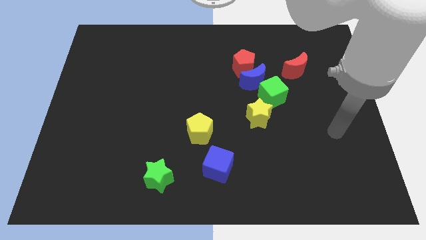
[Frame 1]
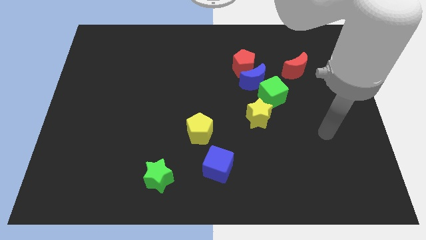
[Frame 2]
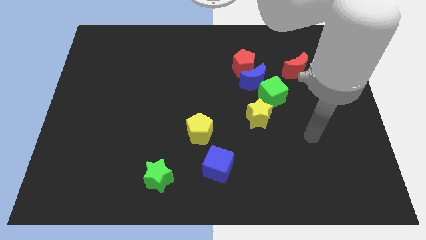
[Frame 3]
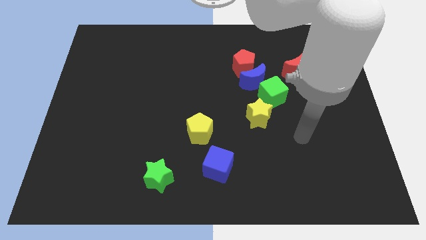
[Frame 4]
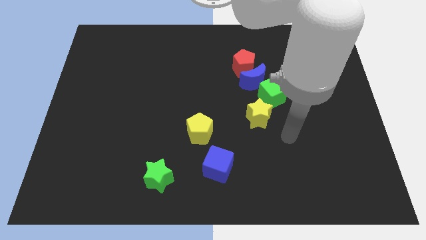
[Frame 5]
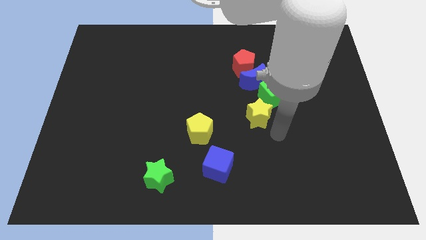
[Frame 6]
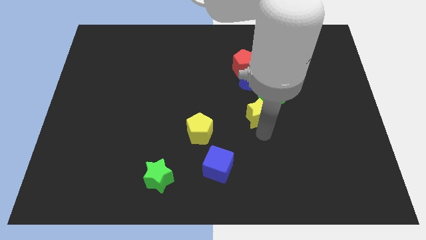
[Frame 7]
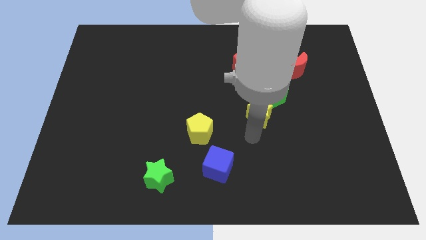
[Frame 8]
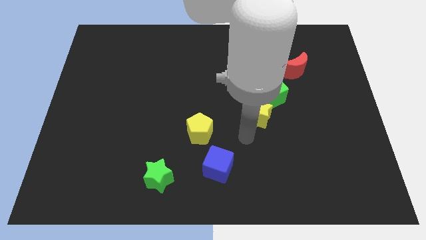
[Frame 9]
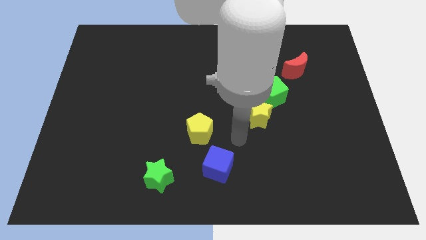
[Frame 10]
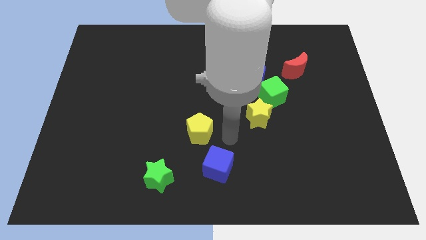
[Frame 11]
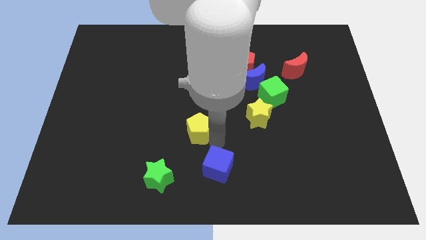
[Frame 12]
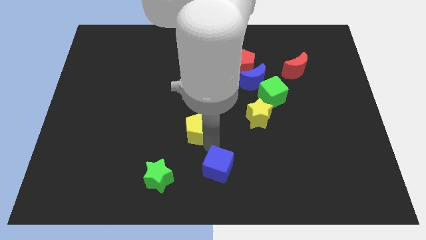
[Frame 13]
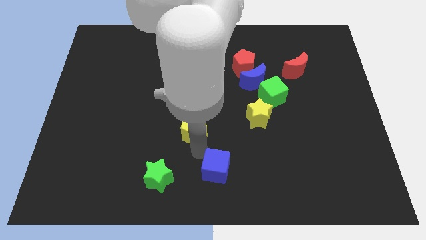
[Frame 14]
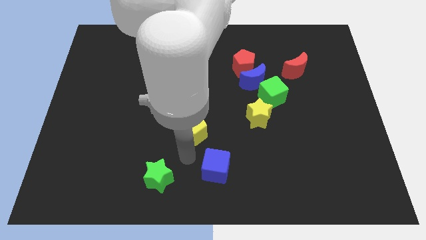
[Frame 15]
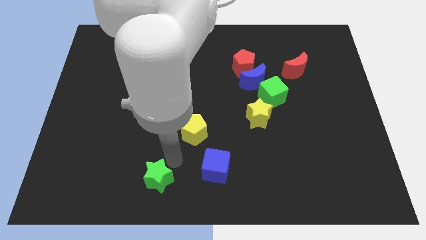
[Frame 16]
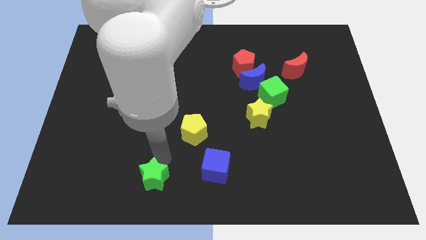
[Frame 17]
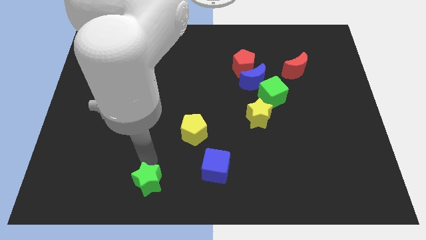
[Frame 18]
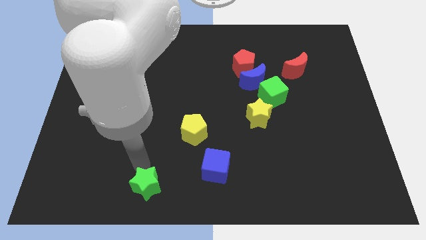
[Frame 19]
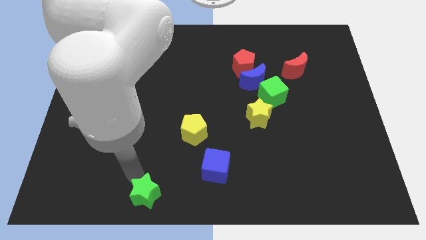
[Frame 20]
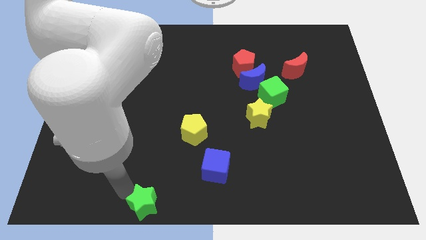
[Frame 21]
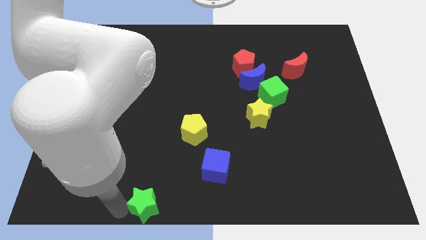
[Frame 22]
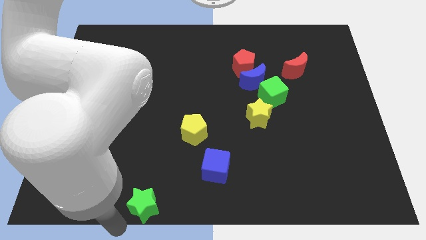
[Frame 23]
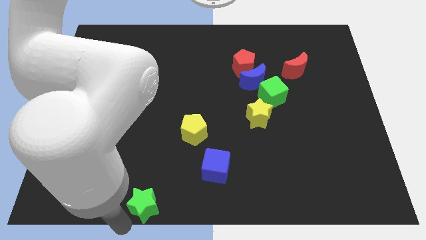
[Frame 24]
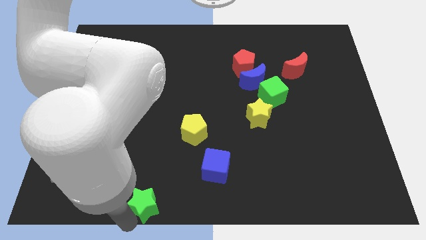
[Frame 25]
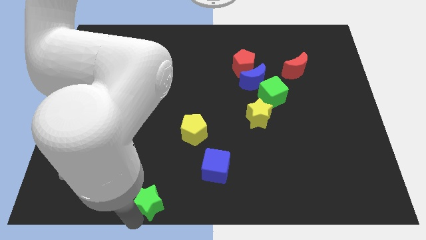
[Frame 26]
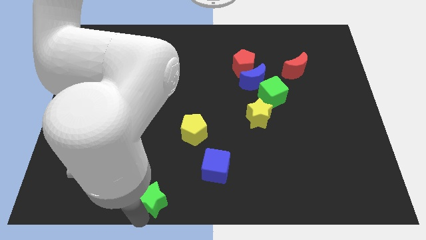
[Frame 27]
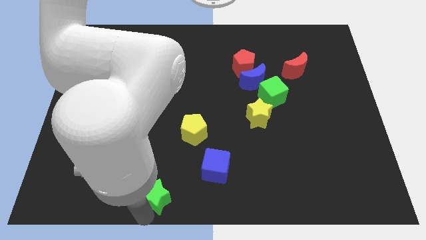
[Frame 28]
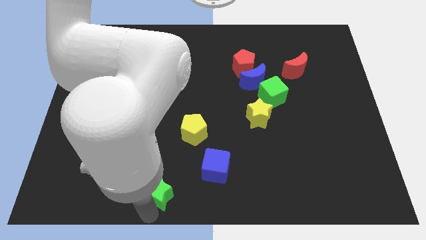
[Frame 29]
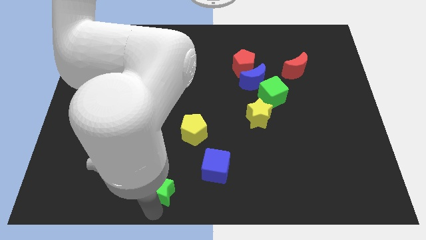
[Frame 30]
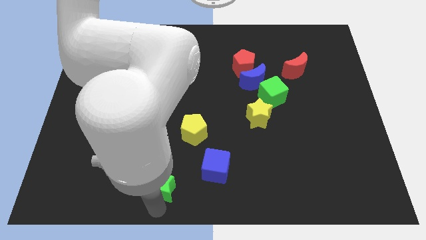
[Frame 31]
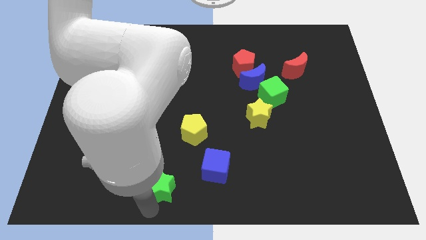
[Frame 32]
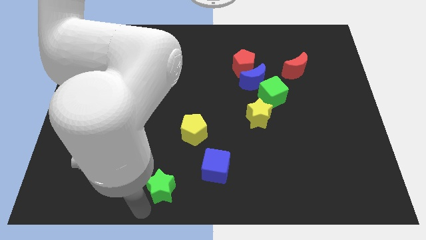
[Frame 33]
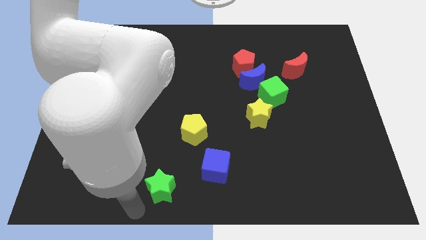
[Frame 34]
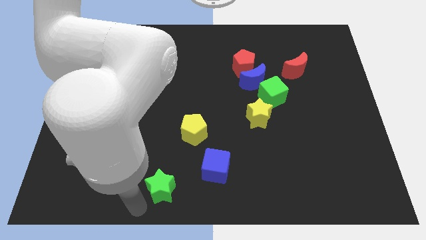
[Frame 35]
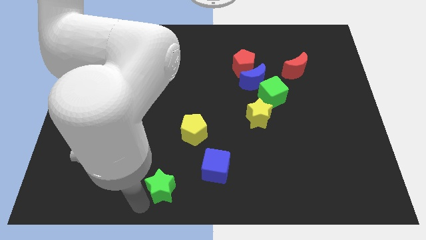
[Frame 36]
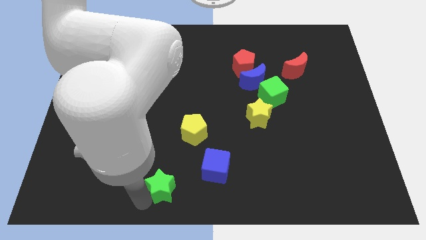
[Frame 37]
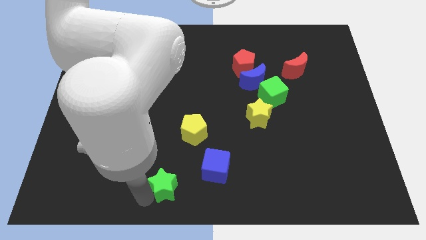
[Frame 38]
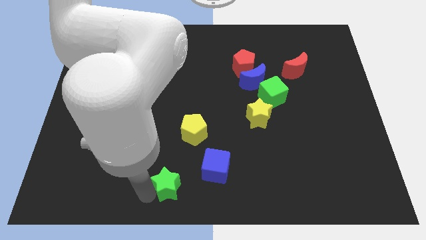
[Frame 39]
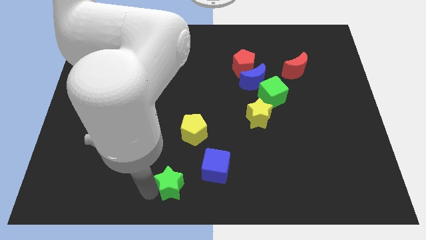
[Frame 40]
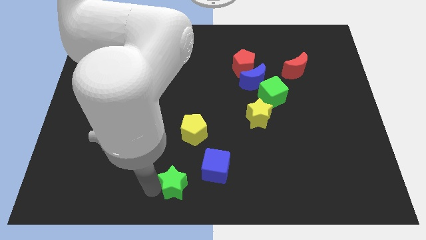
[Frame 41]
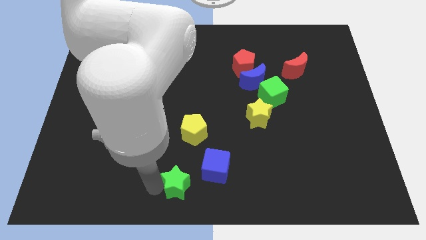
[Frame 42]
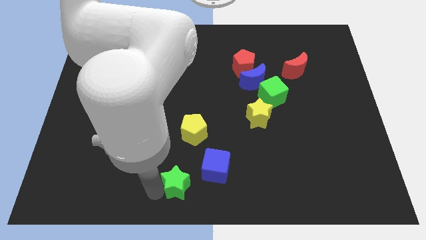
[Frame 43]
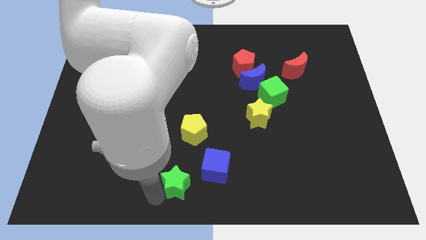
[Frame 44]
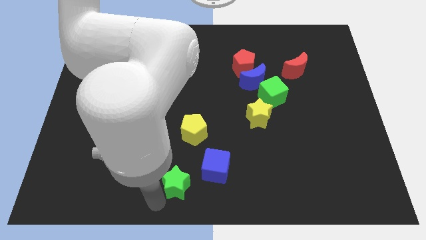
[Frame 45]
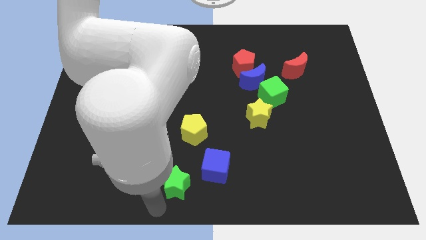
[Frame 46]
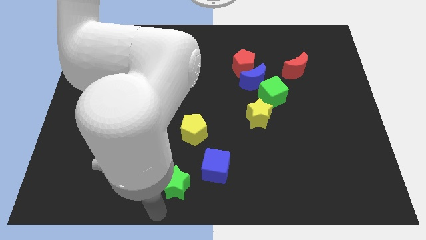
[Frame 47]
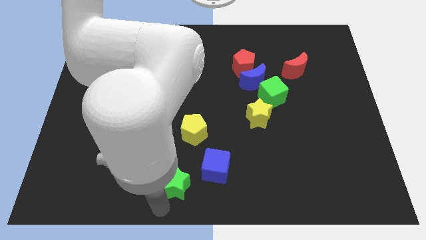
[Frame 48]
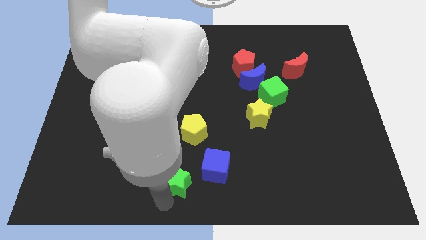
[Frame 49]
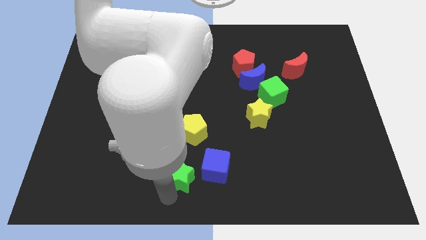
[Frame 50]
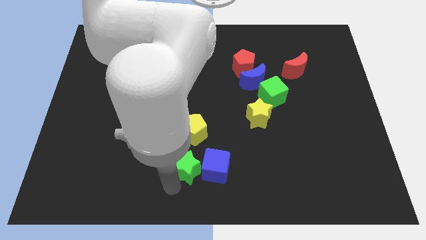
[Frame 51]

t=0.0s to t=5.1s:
move the green star to the blue cube

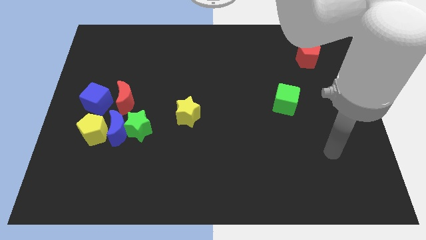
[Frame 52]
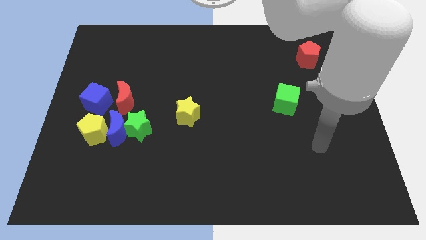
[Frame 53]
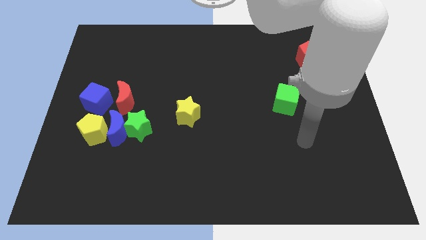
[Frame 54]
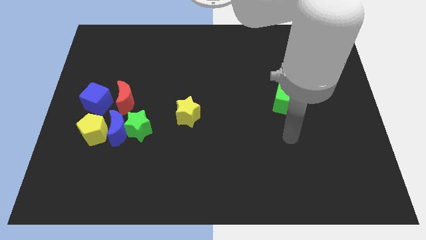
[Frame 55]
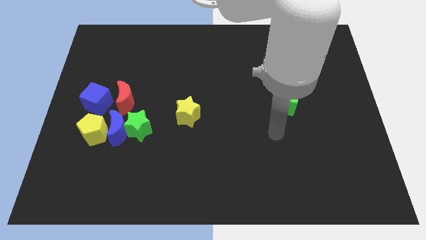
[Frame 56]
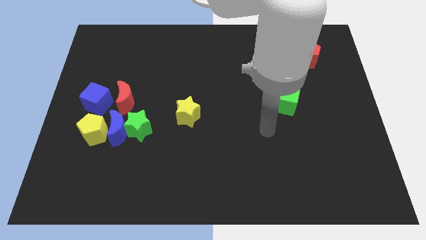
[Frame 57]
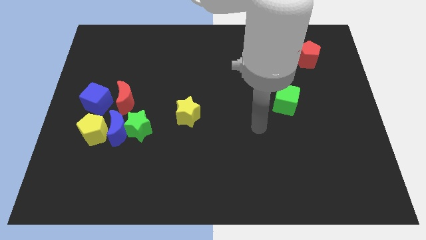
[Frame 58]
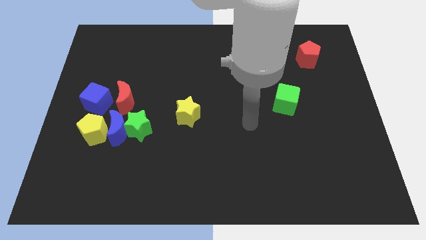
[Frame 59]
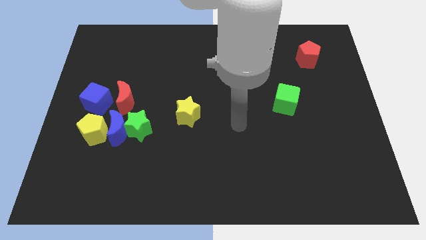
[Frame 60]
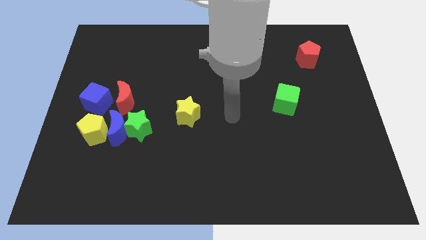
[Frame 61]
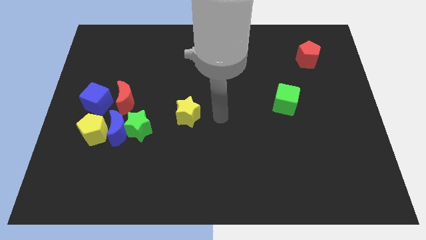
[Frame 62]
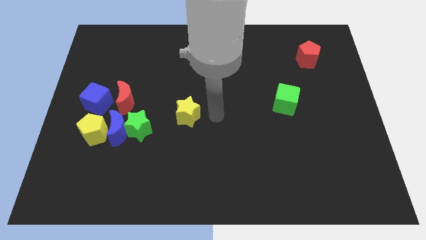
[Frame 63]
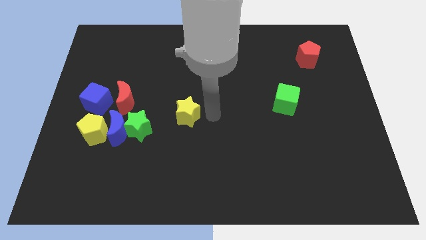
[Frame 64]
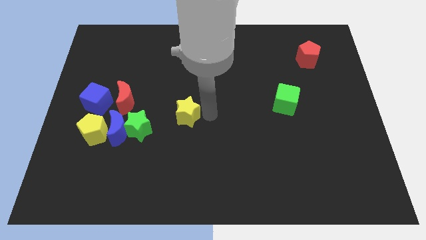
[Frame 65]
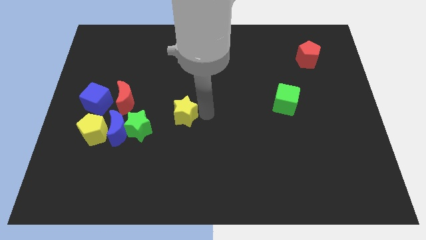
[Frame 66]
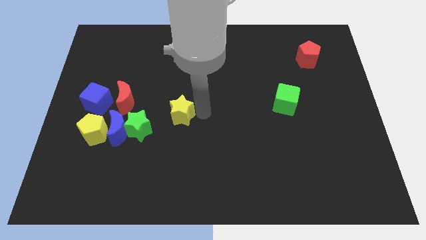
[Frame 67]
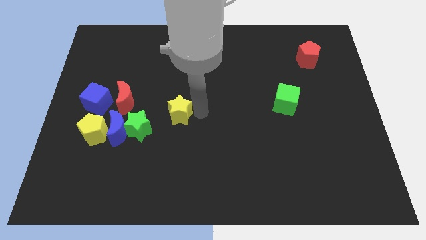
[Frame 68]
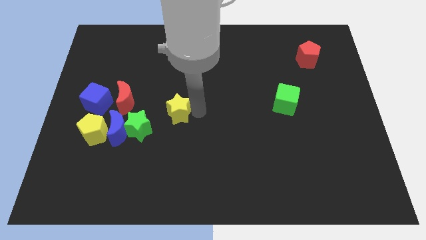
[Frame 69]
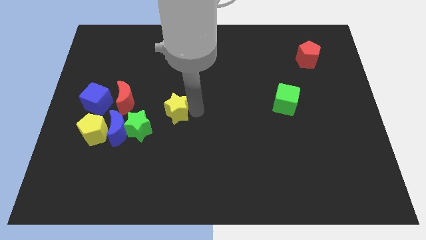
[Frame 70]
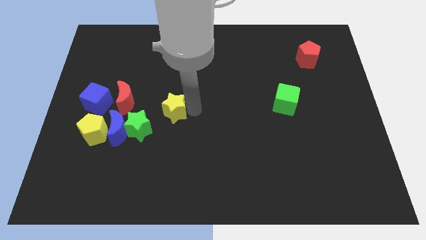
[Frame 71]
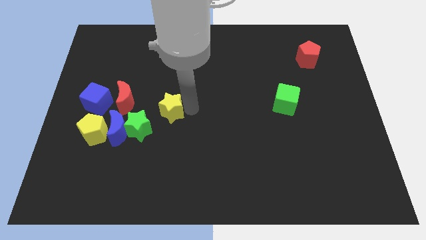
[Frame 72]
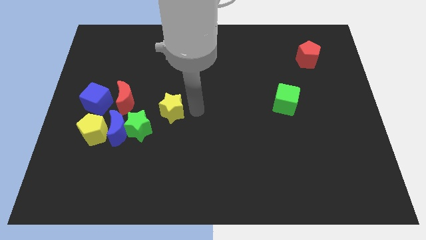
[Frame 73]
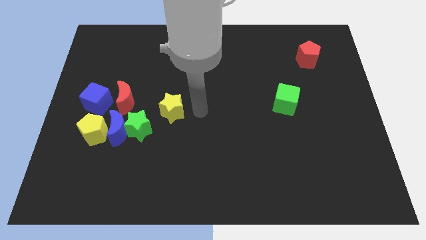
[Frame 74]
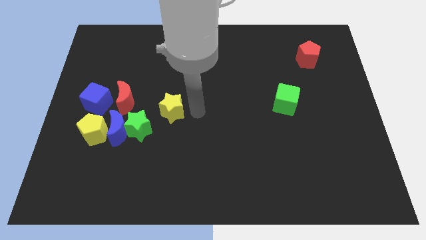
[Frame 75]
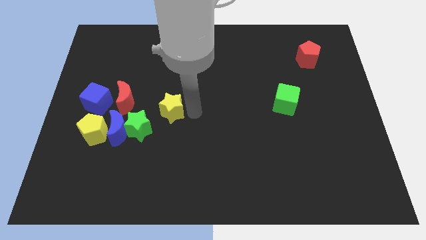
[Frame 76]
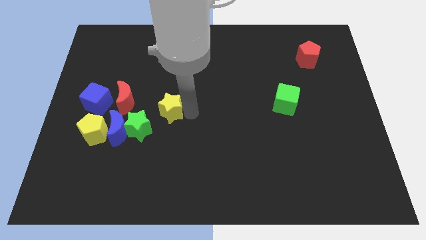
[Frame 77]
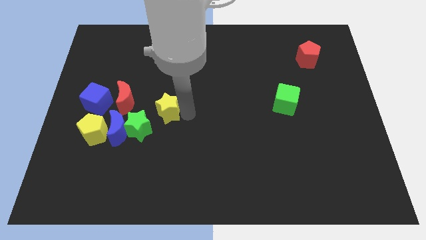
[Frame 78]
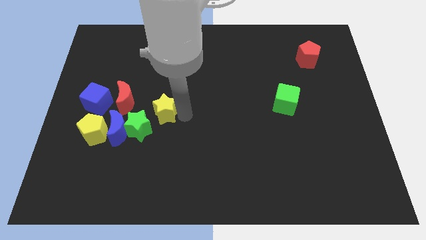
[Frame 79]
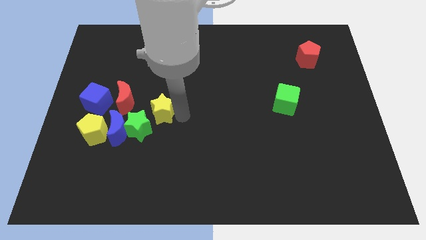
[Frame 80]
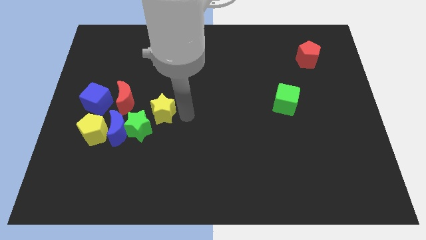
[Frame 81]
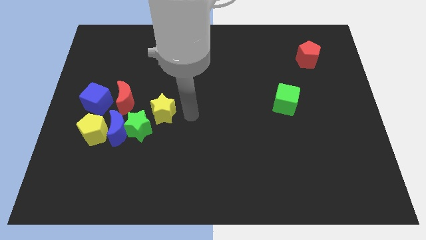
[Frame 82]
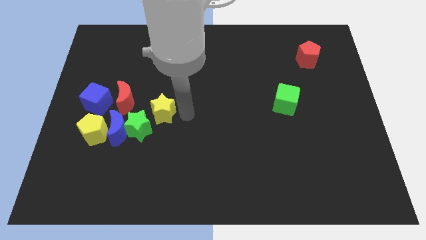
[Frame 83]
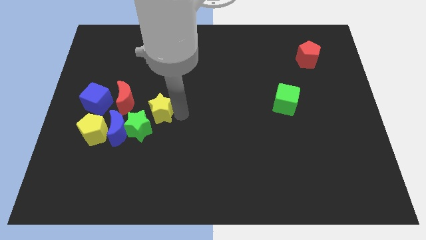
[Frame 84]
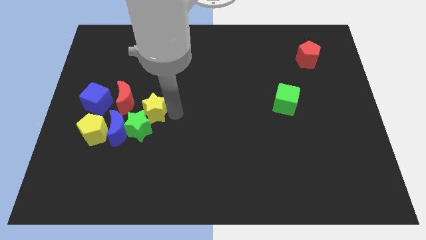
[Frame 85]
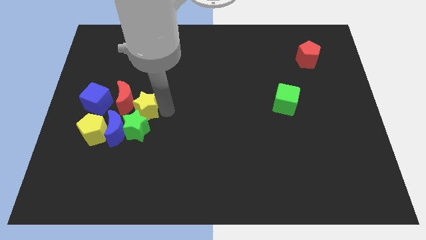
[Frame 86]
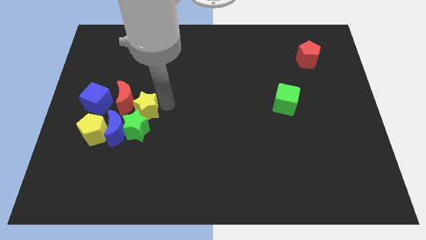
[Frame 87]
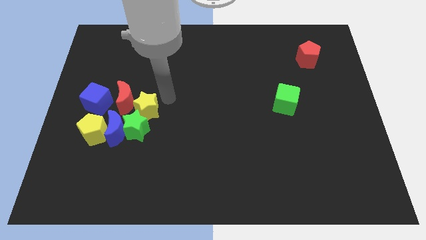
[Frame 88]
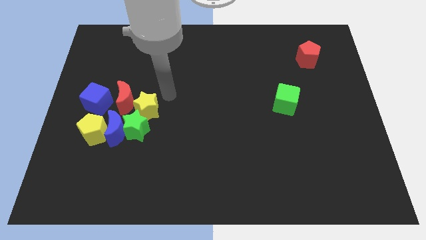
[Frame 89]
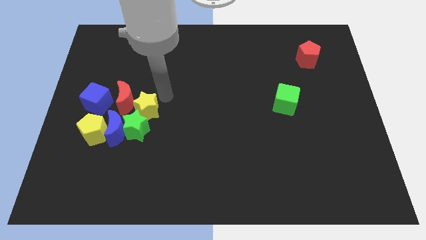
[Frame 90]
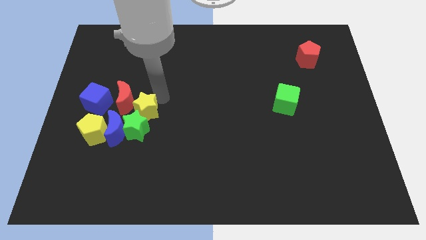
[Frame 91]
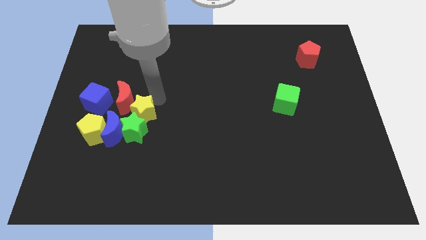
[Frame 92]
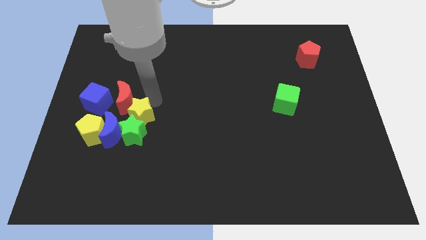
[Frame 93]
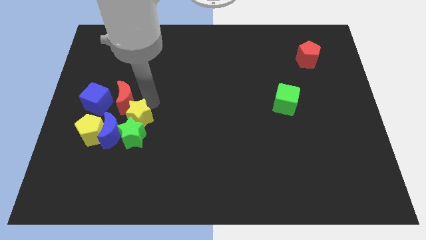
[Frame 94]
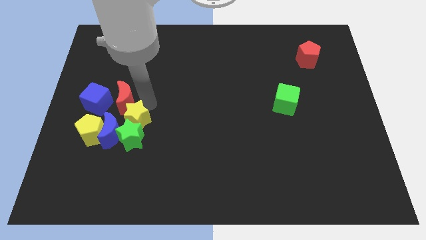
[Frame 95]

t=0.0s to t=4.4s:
slide the yellow star next to the blue moon
